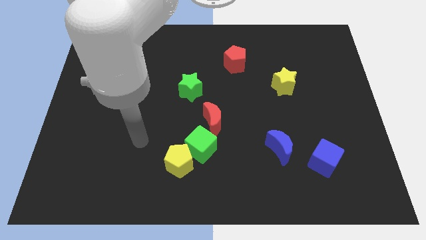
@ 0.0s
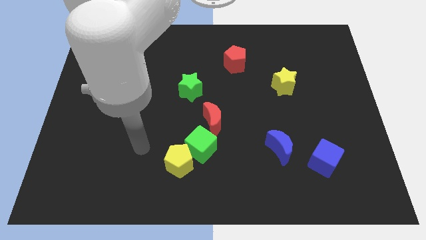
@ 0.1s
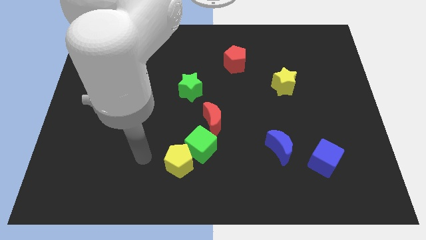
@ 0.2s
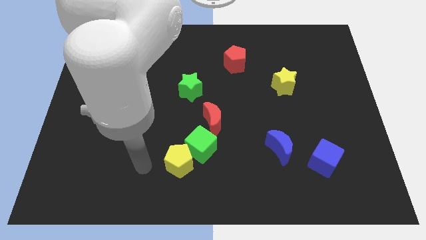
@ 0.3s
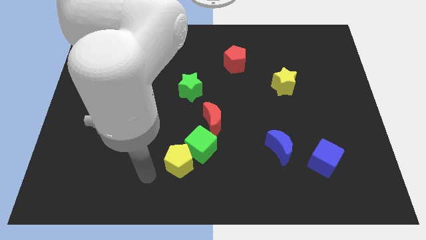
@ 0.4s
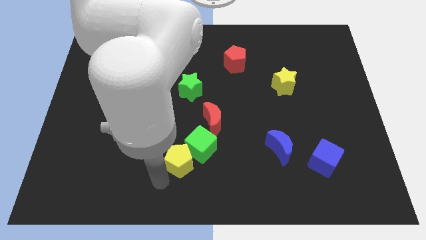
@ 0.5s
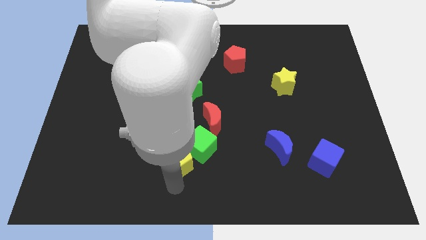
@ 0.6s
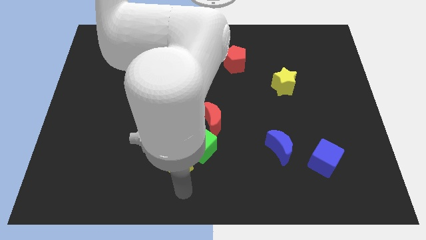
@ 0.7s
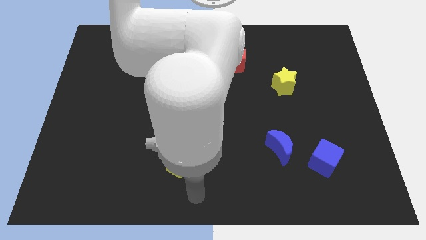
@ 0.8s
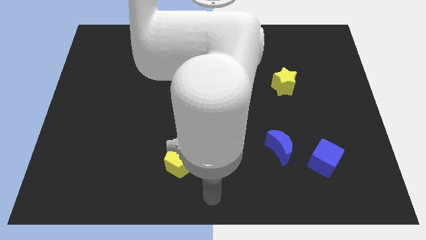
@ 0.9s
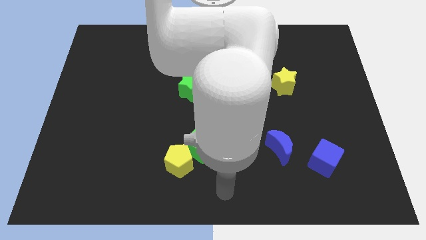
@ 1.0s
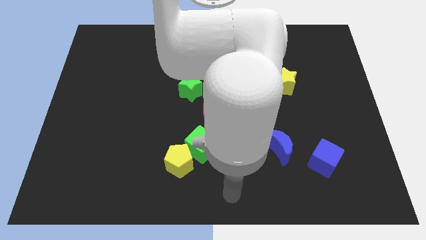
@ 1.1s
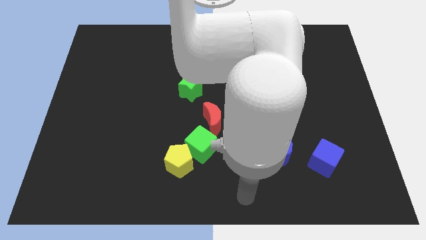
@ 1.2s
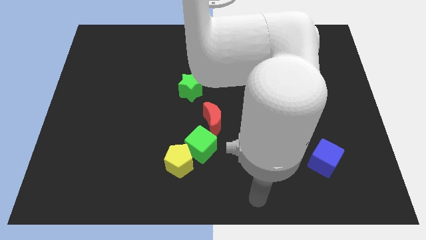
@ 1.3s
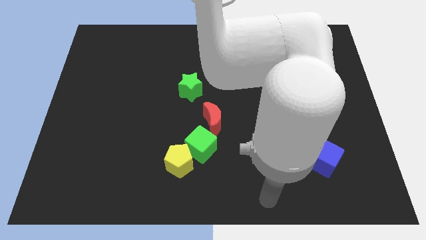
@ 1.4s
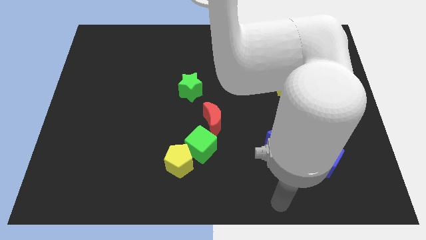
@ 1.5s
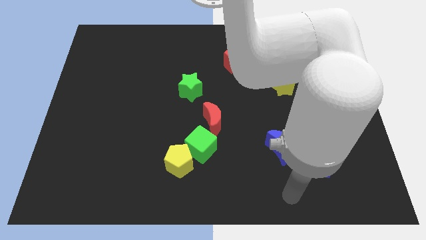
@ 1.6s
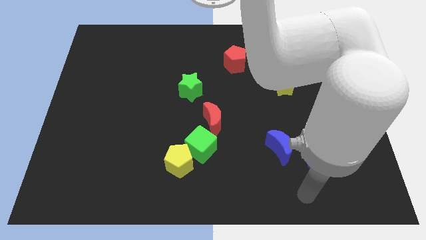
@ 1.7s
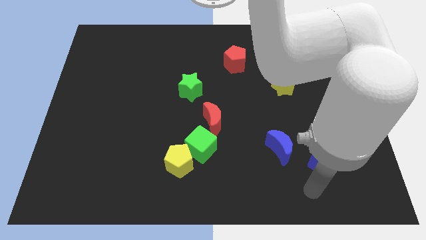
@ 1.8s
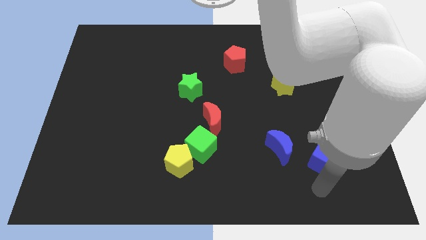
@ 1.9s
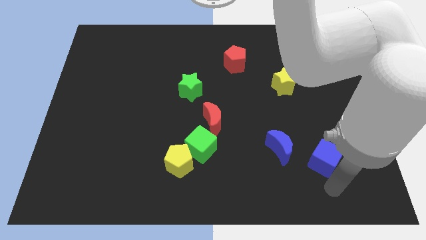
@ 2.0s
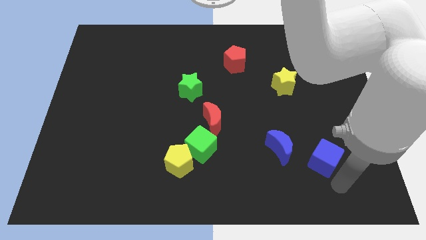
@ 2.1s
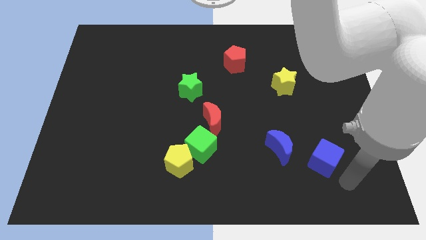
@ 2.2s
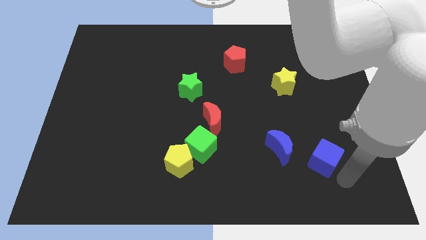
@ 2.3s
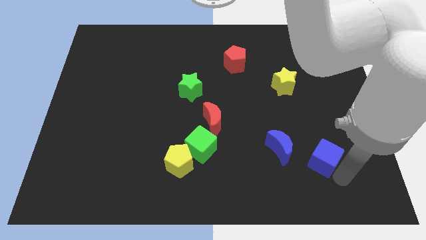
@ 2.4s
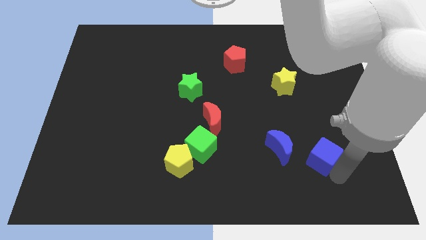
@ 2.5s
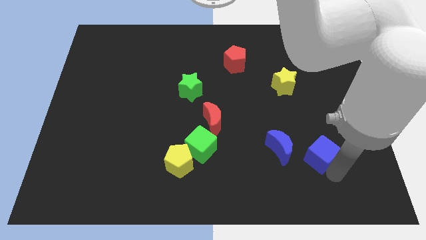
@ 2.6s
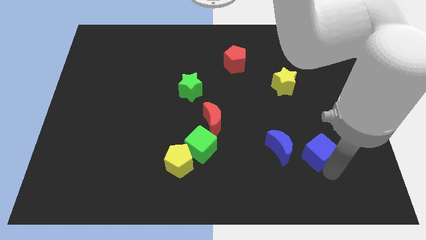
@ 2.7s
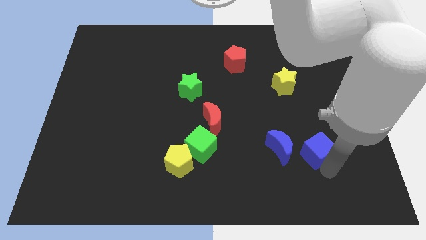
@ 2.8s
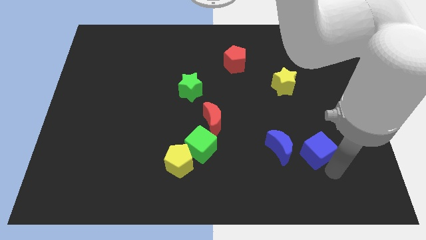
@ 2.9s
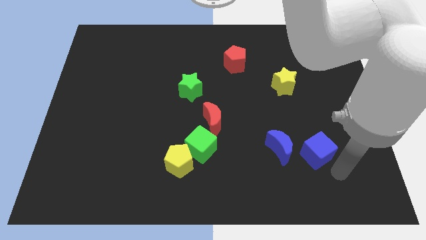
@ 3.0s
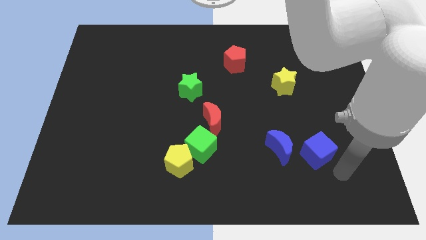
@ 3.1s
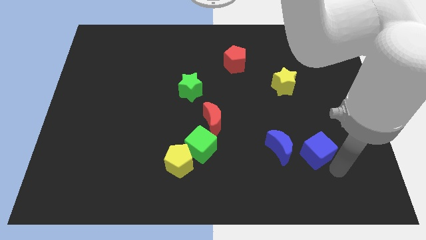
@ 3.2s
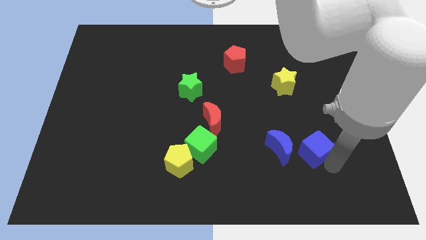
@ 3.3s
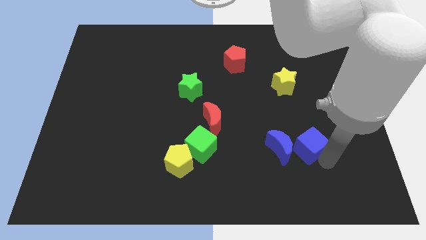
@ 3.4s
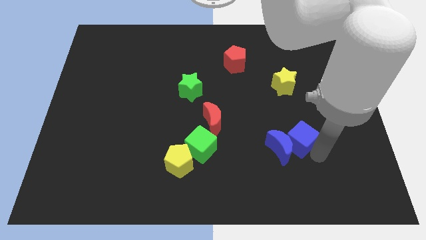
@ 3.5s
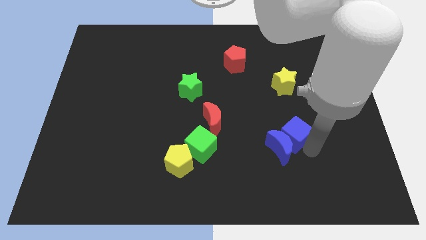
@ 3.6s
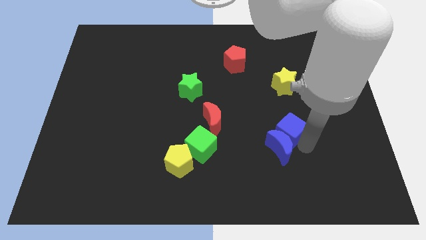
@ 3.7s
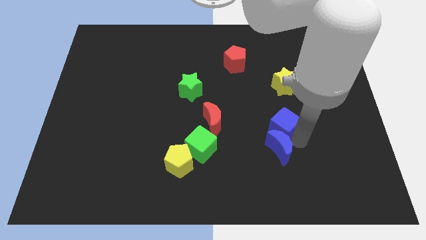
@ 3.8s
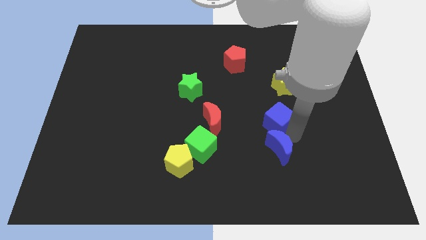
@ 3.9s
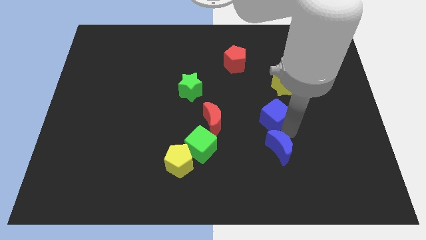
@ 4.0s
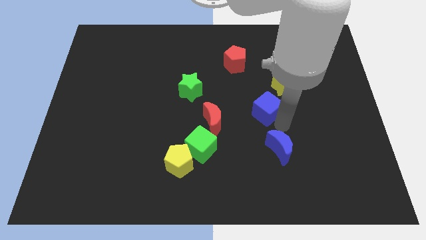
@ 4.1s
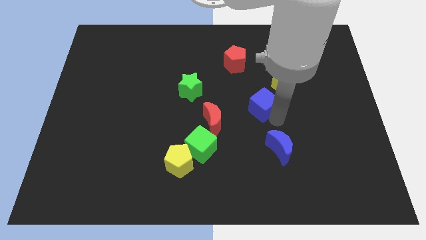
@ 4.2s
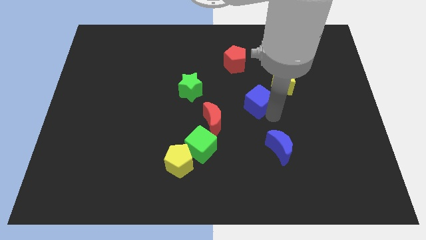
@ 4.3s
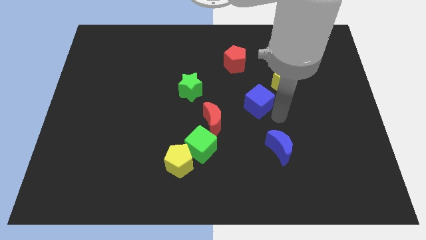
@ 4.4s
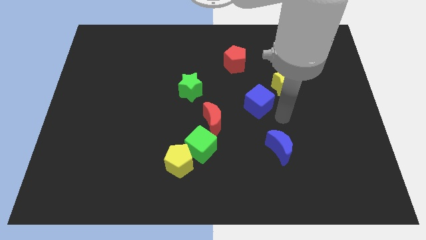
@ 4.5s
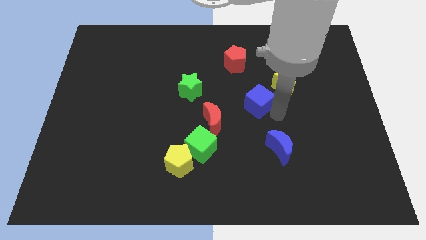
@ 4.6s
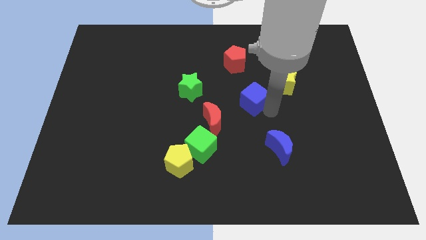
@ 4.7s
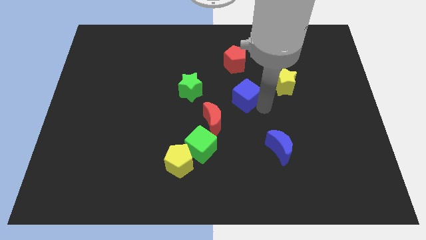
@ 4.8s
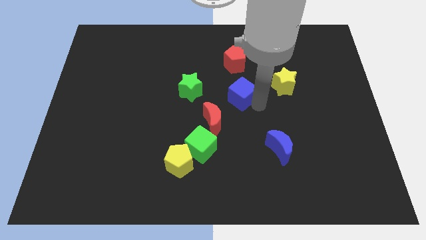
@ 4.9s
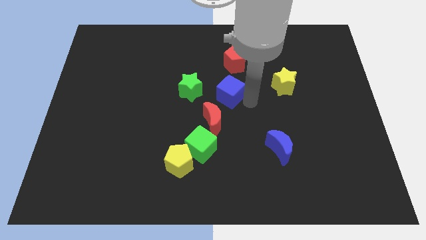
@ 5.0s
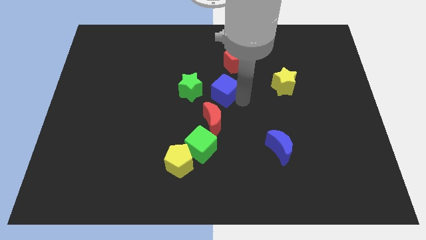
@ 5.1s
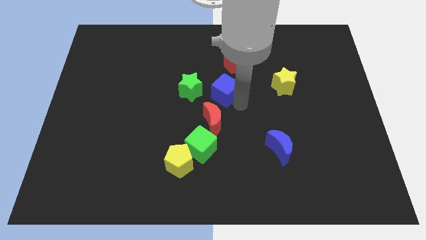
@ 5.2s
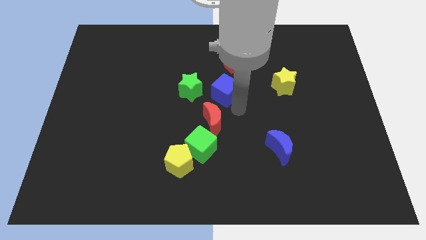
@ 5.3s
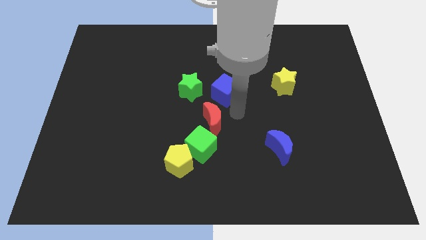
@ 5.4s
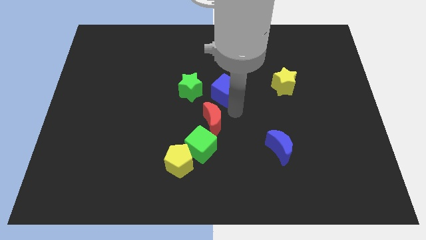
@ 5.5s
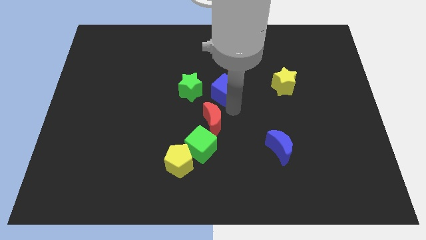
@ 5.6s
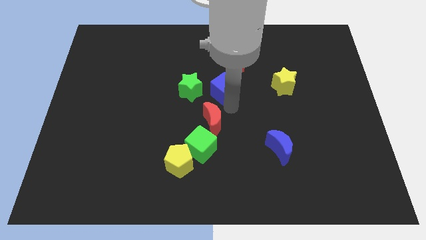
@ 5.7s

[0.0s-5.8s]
move the blue cube diagonally down and to the left of the red pentagon

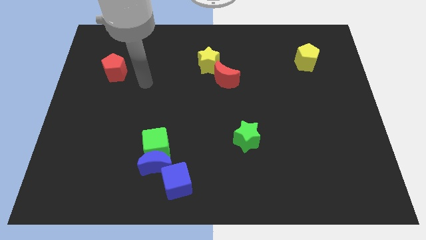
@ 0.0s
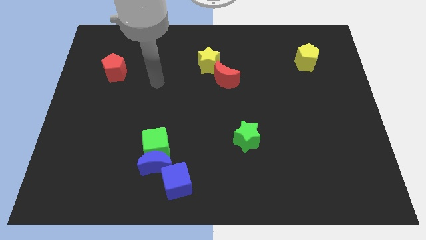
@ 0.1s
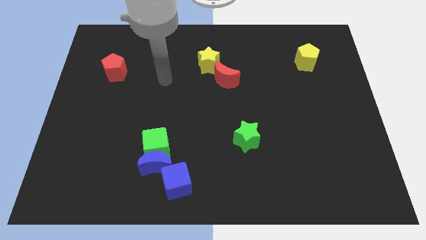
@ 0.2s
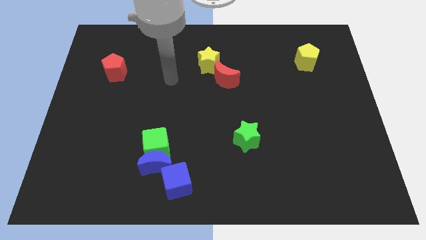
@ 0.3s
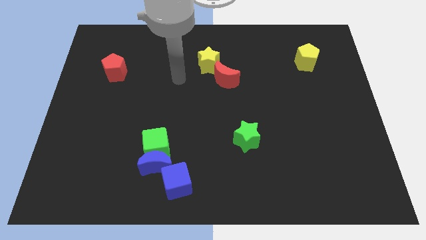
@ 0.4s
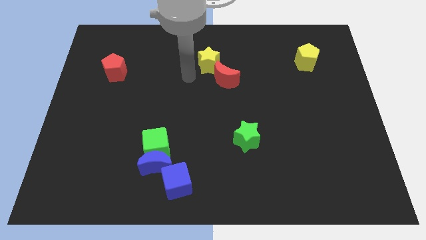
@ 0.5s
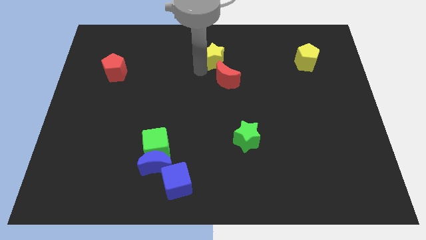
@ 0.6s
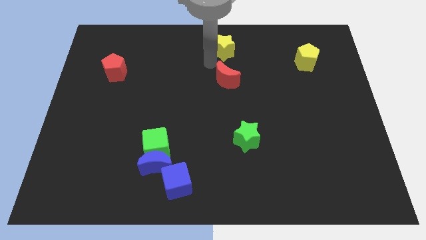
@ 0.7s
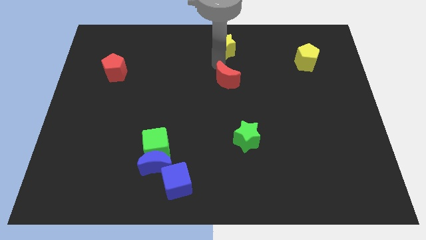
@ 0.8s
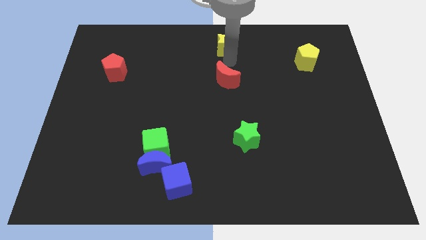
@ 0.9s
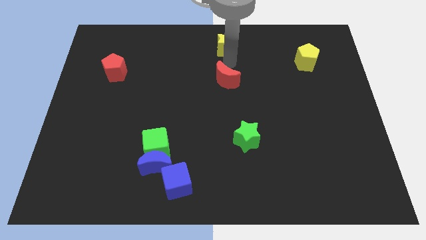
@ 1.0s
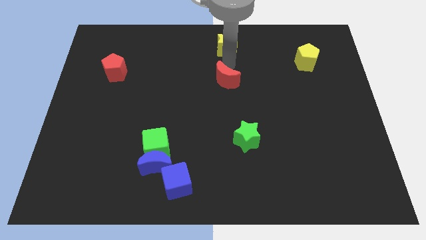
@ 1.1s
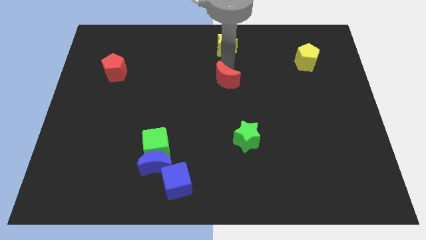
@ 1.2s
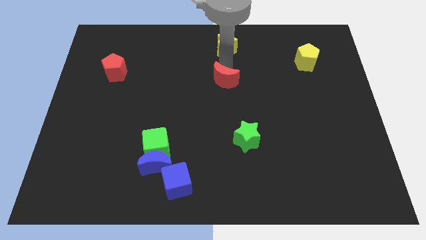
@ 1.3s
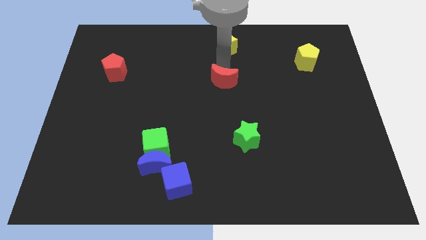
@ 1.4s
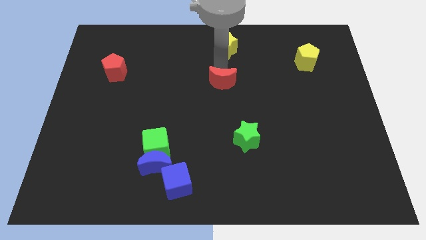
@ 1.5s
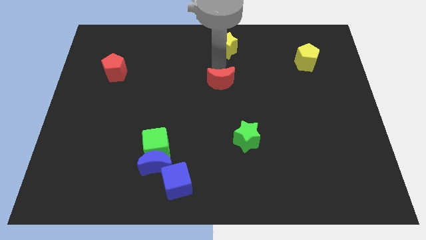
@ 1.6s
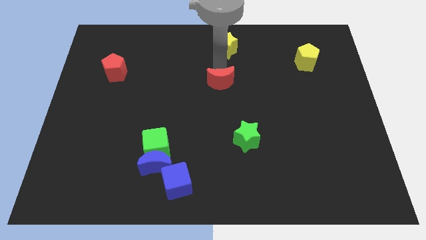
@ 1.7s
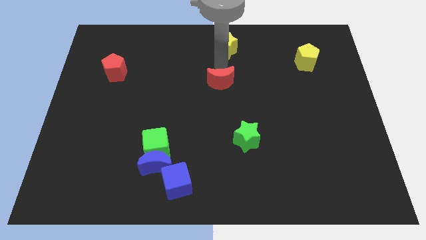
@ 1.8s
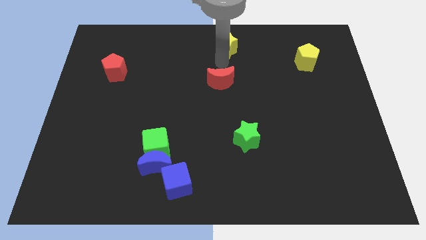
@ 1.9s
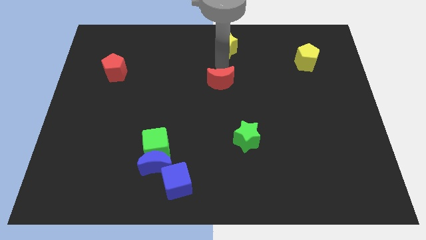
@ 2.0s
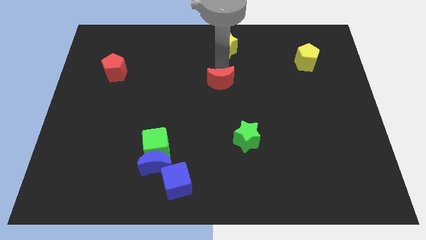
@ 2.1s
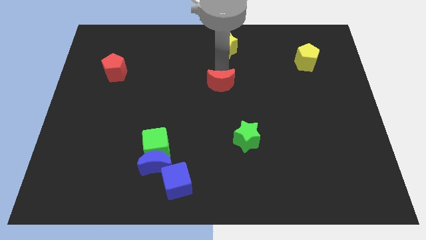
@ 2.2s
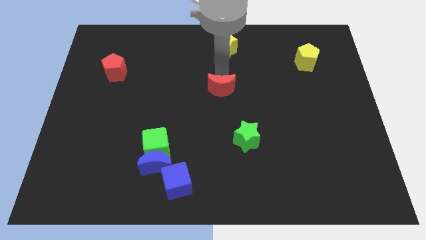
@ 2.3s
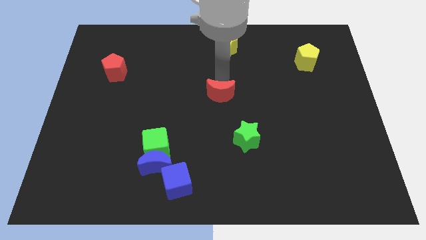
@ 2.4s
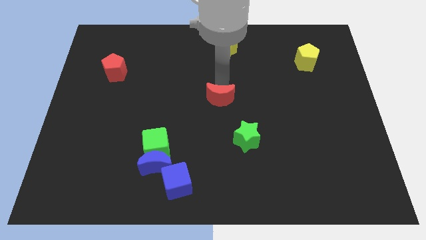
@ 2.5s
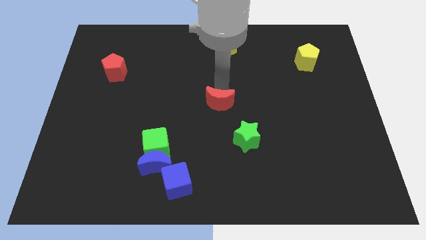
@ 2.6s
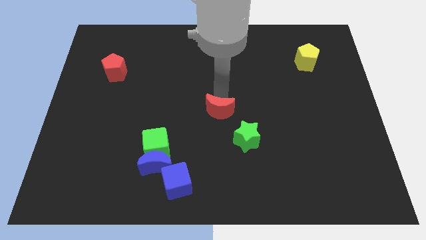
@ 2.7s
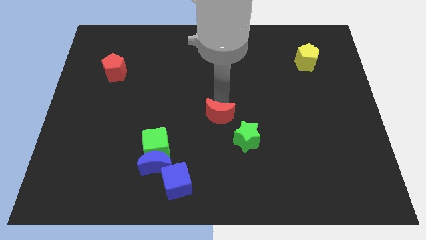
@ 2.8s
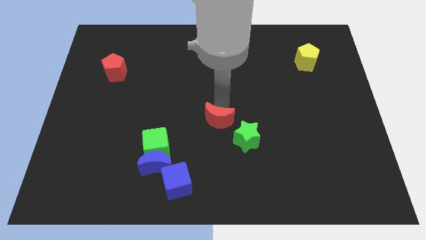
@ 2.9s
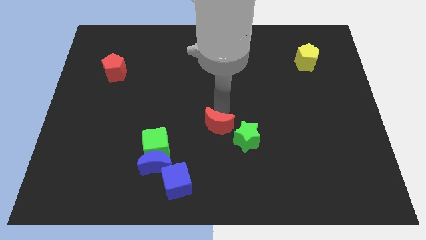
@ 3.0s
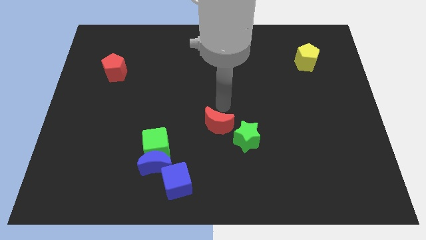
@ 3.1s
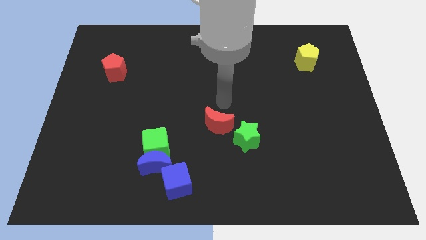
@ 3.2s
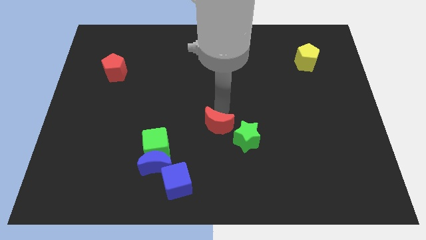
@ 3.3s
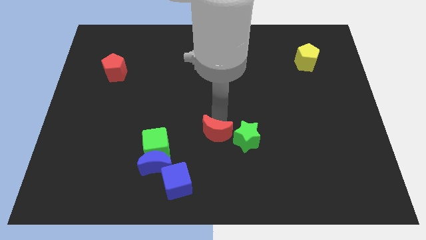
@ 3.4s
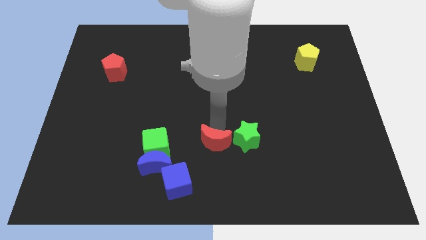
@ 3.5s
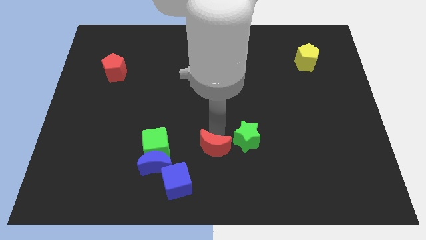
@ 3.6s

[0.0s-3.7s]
push the red moon to the right of the blue moon
